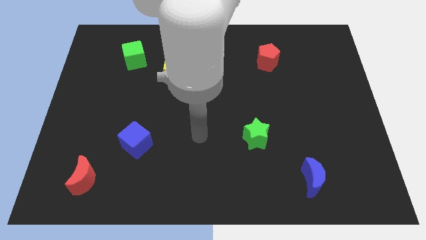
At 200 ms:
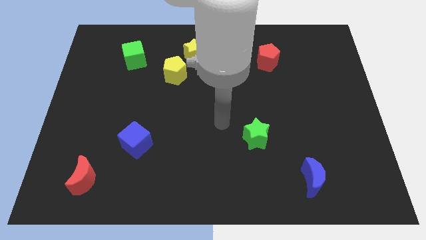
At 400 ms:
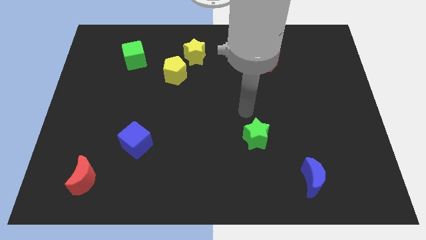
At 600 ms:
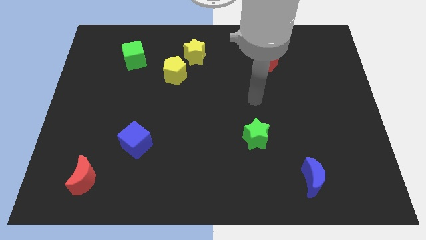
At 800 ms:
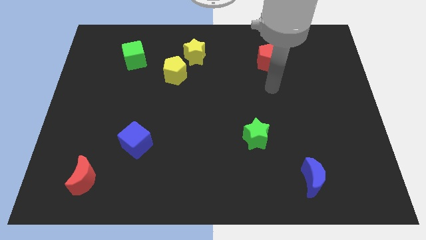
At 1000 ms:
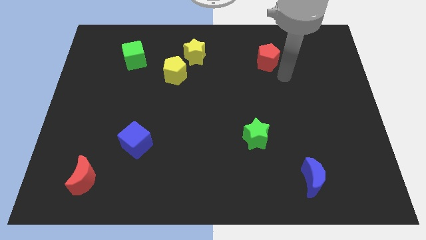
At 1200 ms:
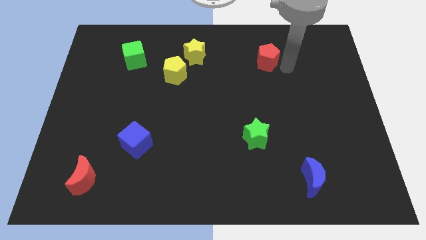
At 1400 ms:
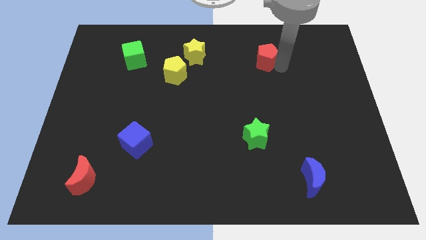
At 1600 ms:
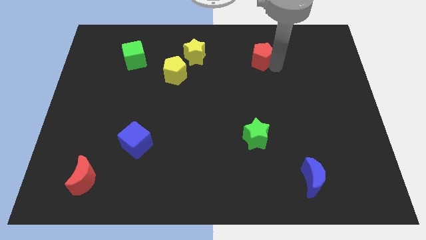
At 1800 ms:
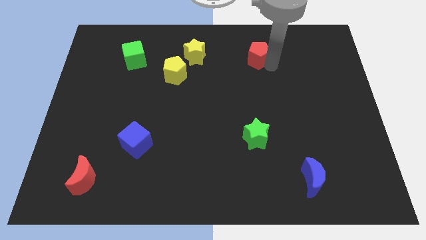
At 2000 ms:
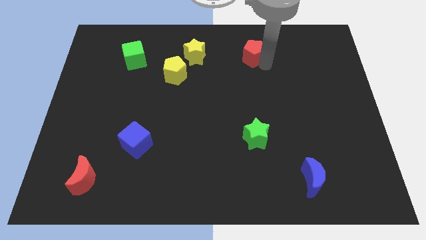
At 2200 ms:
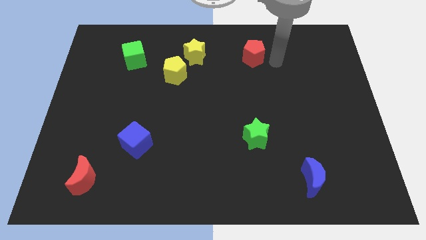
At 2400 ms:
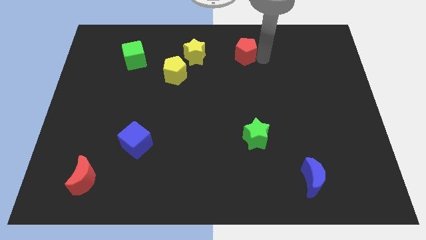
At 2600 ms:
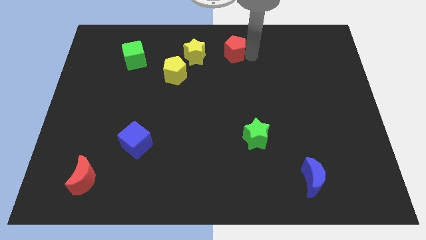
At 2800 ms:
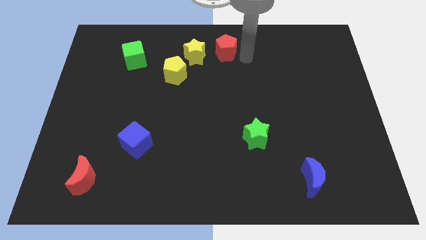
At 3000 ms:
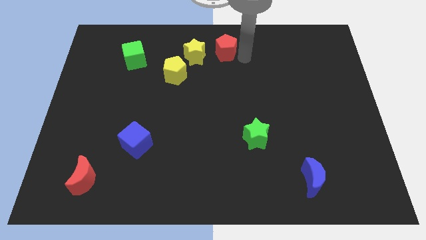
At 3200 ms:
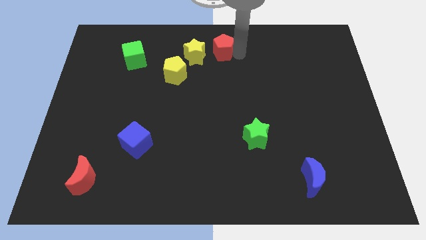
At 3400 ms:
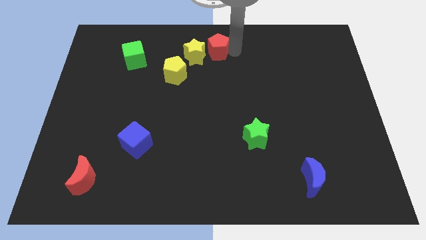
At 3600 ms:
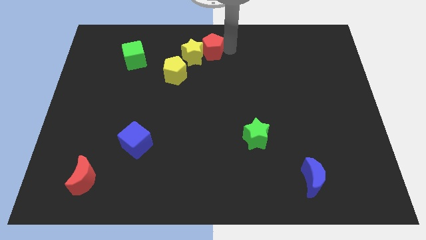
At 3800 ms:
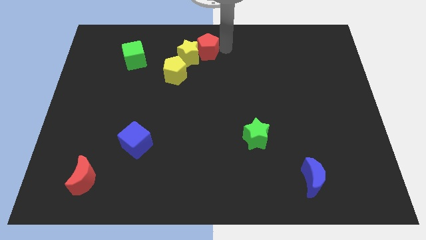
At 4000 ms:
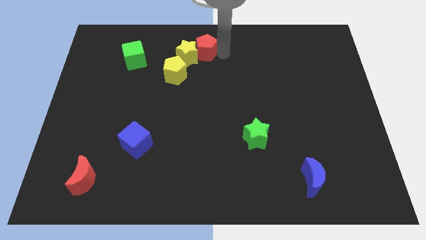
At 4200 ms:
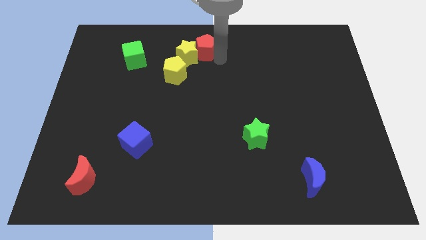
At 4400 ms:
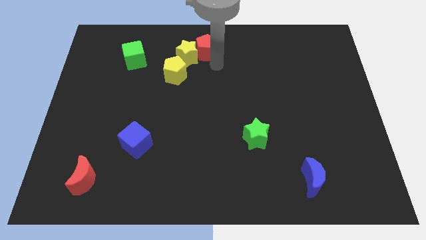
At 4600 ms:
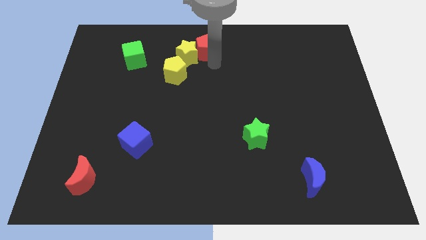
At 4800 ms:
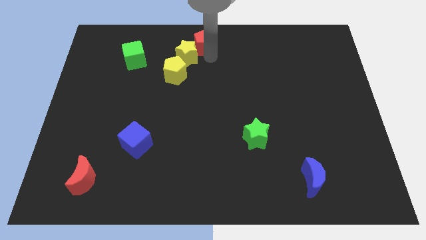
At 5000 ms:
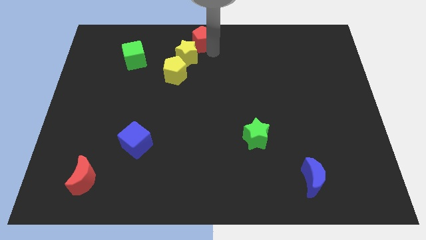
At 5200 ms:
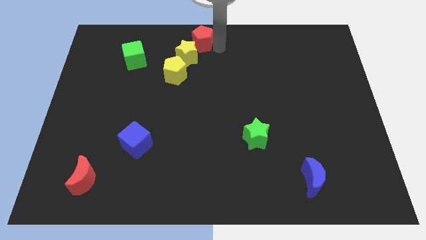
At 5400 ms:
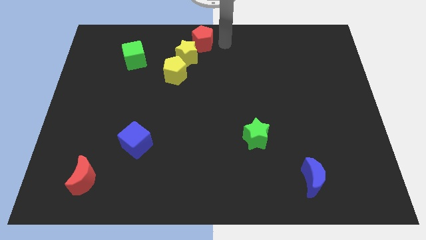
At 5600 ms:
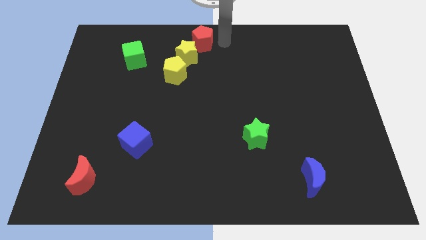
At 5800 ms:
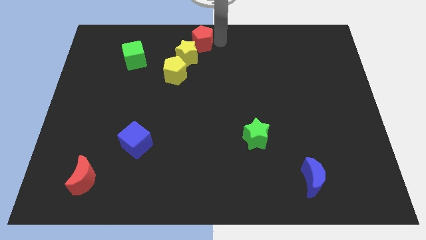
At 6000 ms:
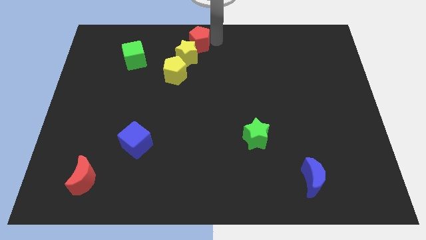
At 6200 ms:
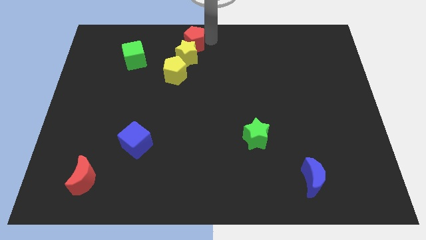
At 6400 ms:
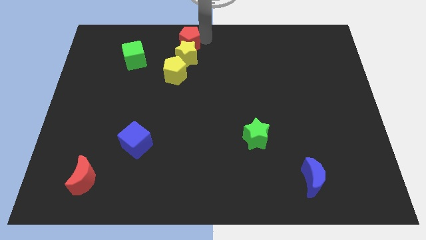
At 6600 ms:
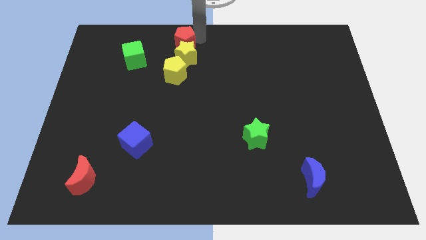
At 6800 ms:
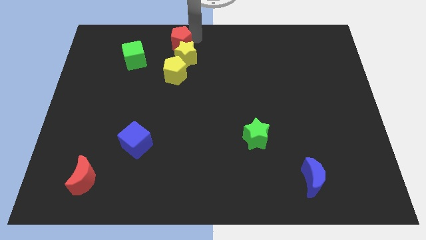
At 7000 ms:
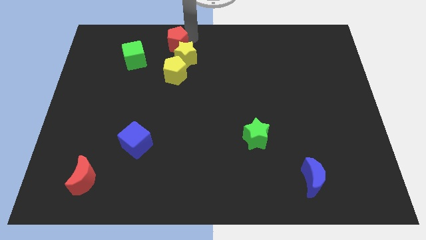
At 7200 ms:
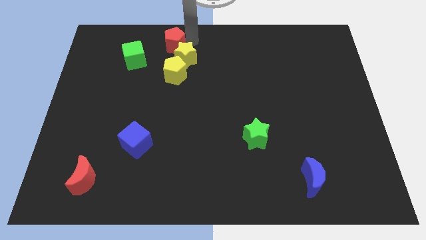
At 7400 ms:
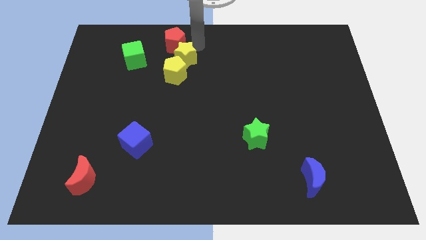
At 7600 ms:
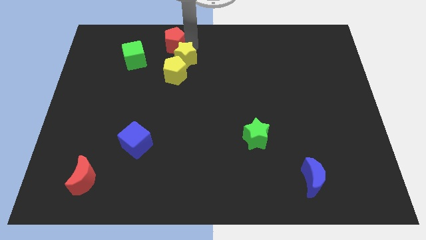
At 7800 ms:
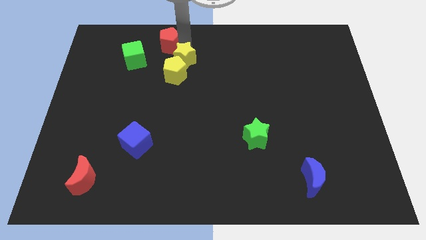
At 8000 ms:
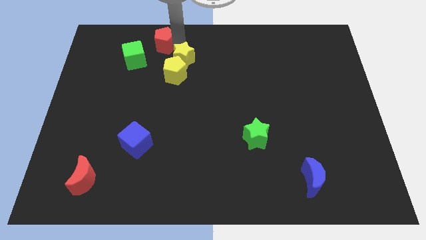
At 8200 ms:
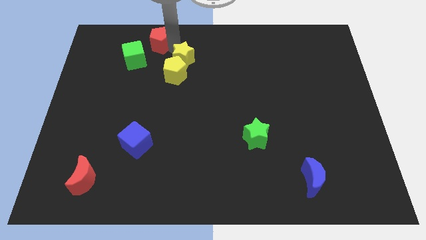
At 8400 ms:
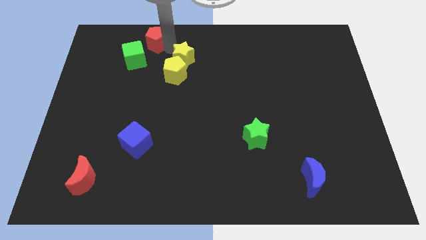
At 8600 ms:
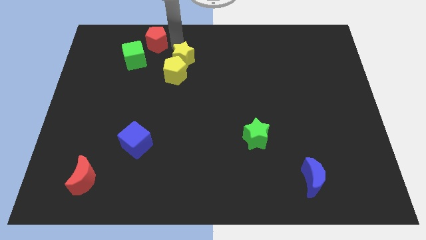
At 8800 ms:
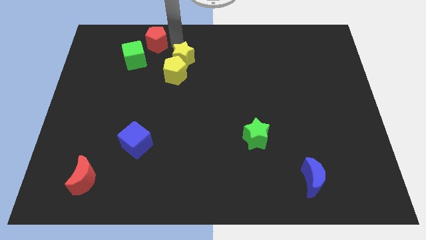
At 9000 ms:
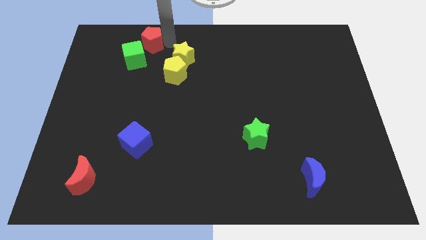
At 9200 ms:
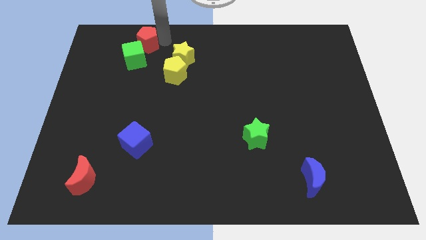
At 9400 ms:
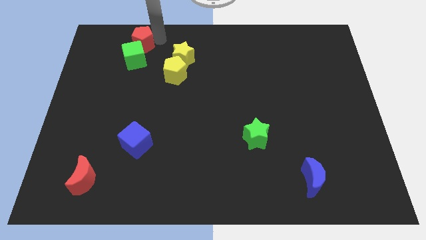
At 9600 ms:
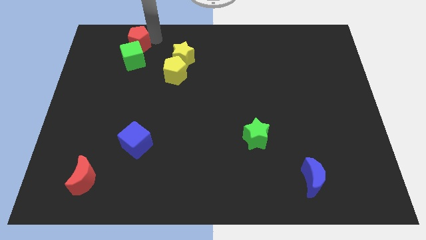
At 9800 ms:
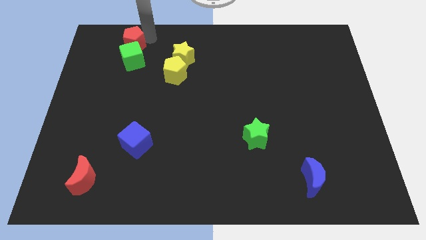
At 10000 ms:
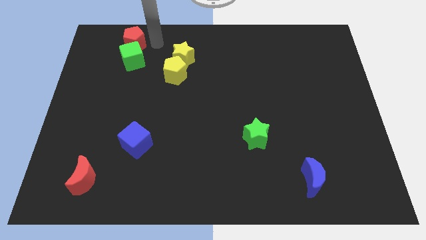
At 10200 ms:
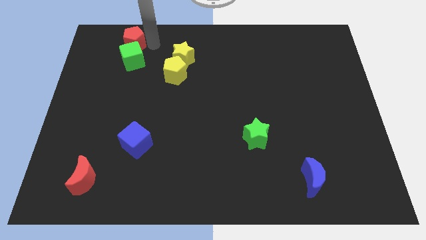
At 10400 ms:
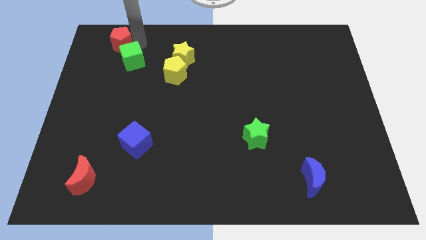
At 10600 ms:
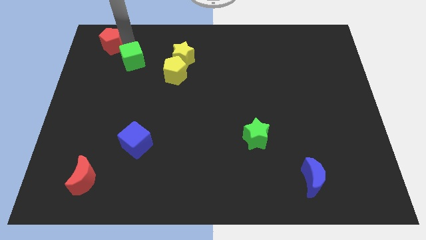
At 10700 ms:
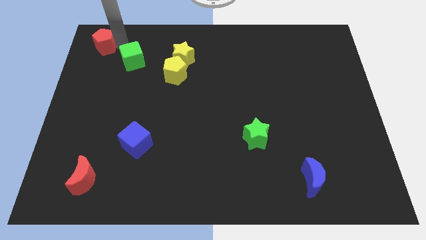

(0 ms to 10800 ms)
put the red pentagon to the upper left corner

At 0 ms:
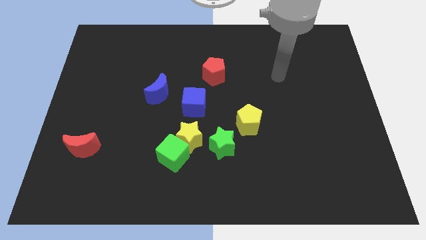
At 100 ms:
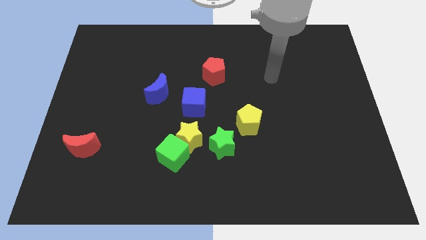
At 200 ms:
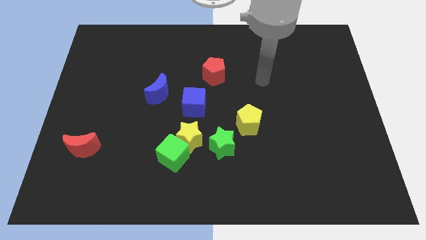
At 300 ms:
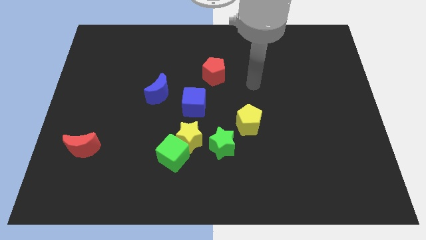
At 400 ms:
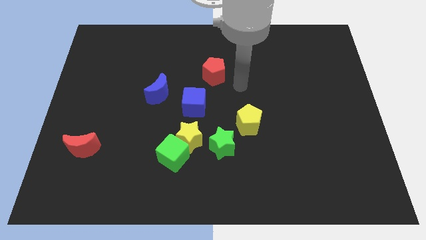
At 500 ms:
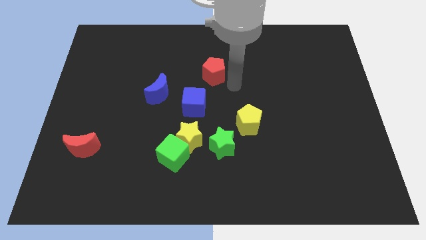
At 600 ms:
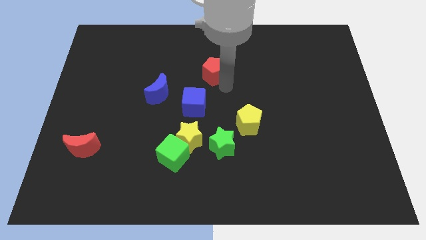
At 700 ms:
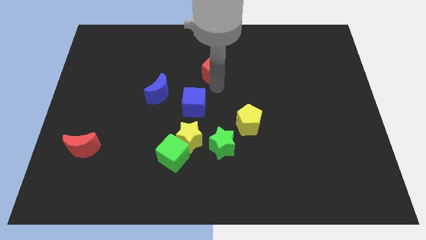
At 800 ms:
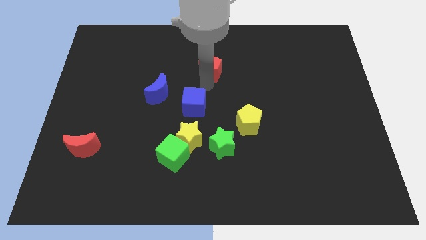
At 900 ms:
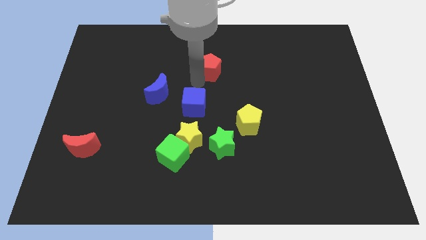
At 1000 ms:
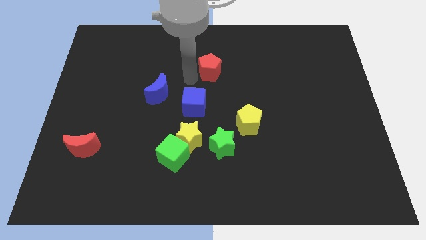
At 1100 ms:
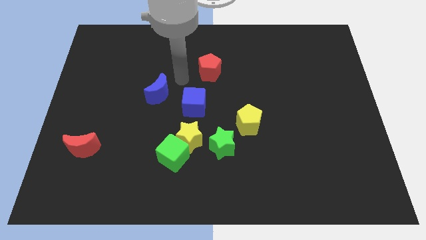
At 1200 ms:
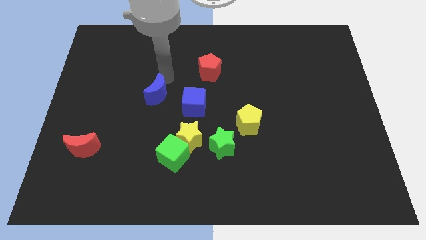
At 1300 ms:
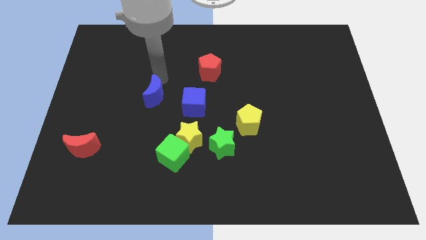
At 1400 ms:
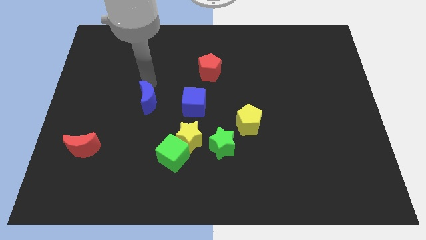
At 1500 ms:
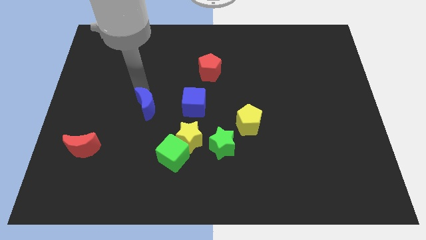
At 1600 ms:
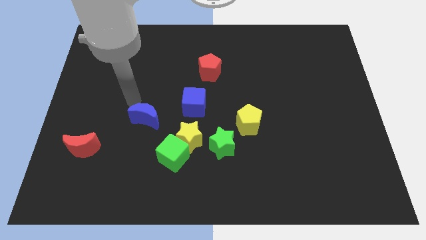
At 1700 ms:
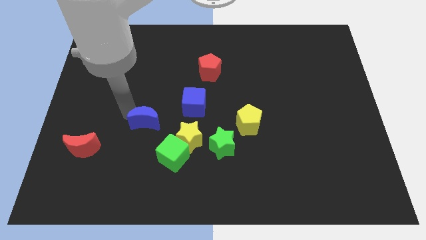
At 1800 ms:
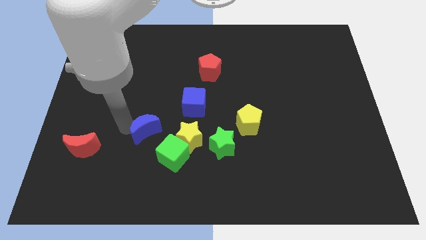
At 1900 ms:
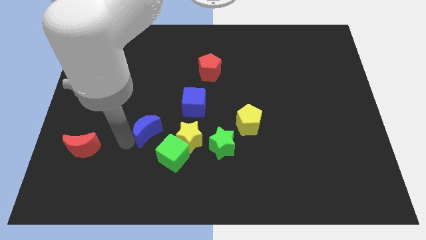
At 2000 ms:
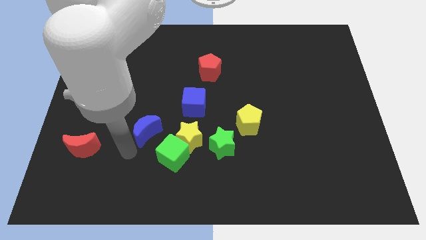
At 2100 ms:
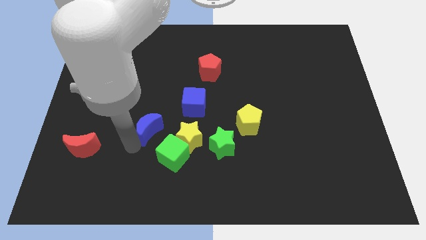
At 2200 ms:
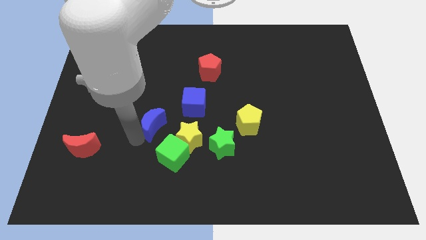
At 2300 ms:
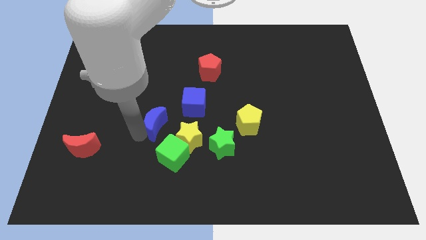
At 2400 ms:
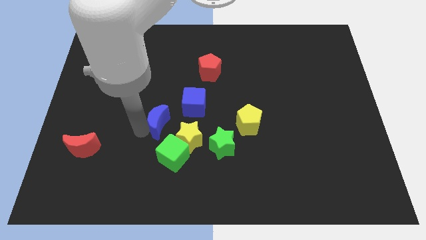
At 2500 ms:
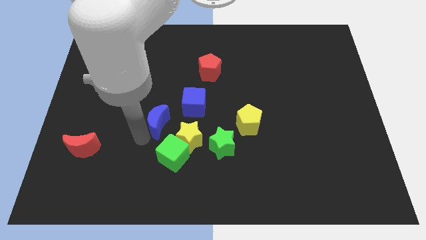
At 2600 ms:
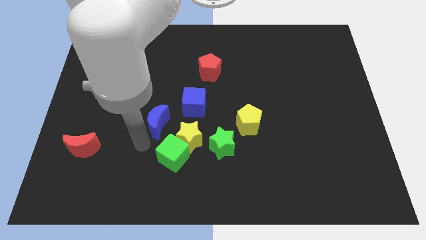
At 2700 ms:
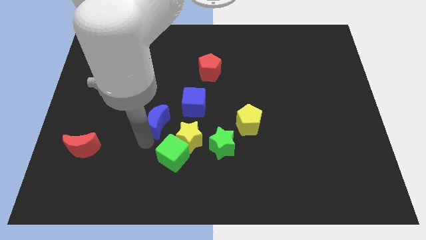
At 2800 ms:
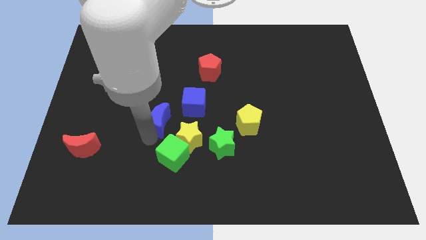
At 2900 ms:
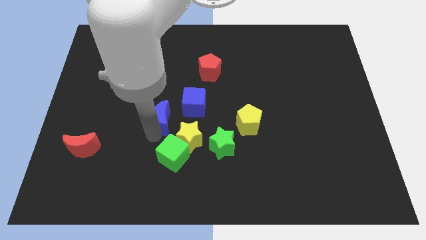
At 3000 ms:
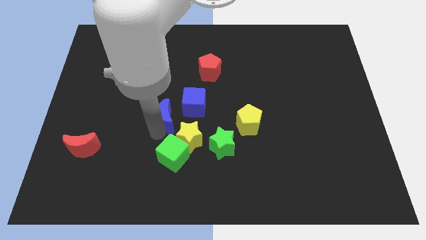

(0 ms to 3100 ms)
put the blue moon to the middle of the board
